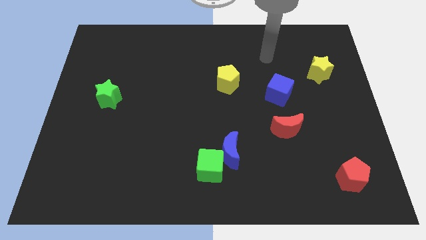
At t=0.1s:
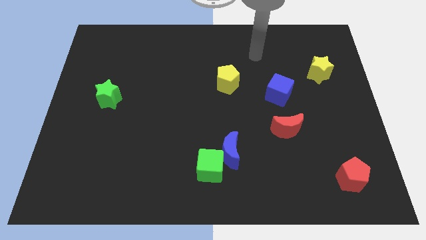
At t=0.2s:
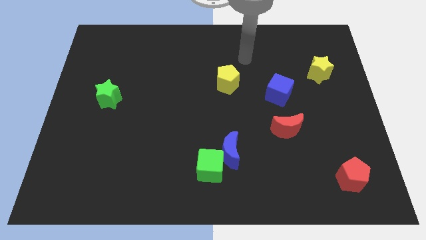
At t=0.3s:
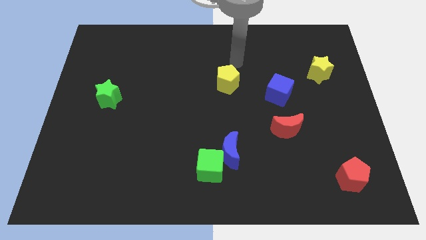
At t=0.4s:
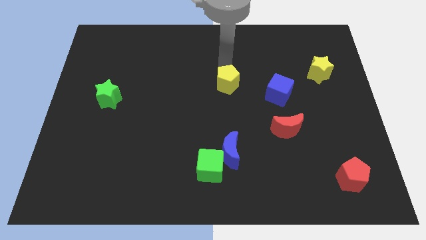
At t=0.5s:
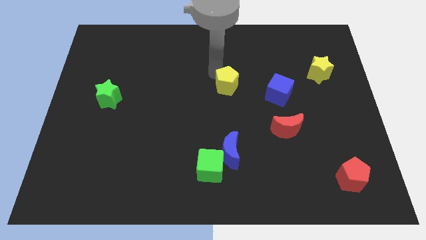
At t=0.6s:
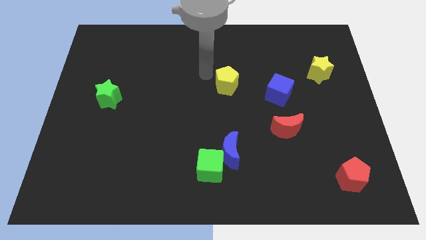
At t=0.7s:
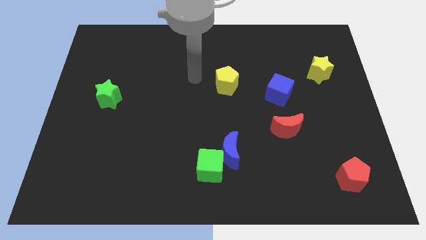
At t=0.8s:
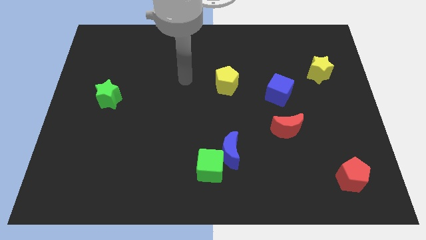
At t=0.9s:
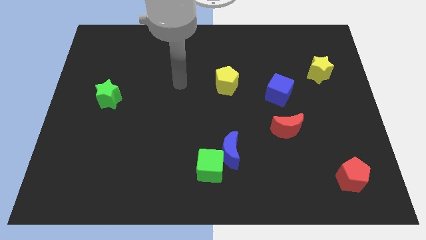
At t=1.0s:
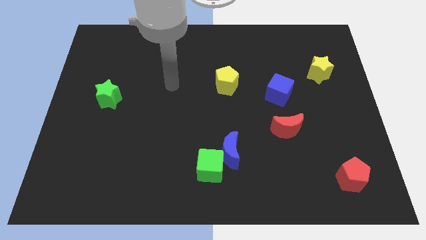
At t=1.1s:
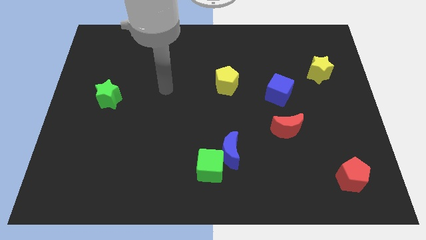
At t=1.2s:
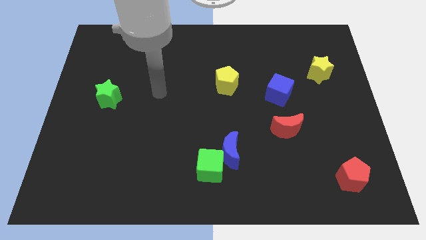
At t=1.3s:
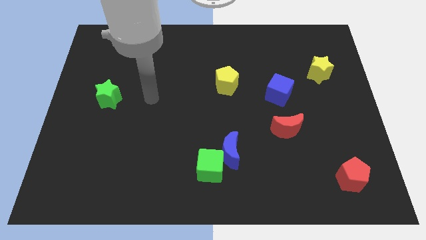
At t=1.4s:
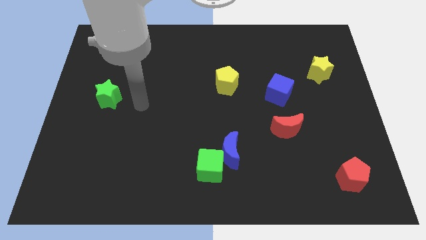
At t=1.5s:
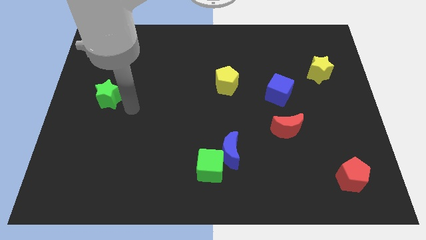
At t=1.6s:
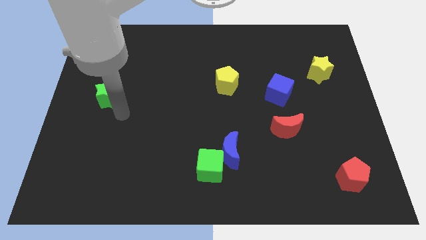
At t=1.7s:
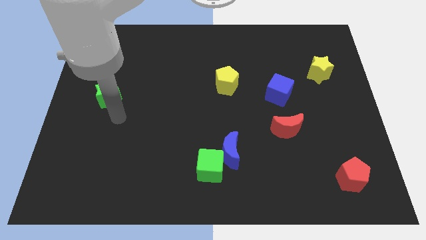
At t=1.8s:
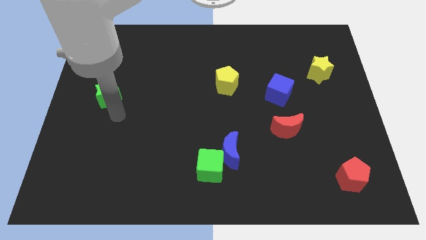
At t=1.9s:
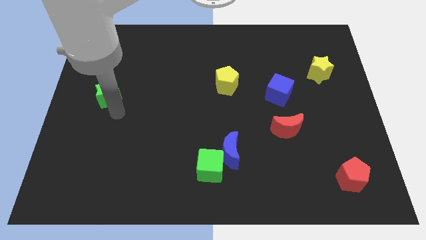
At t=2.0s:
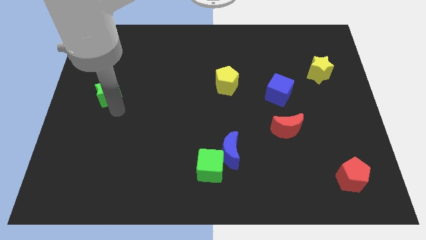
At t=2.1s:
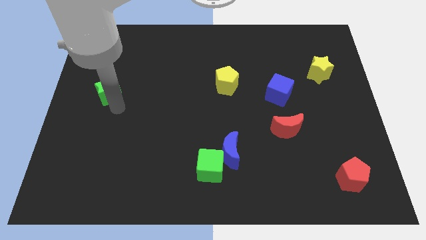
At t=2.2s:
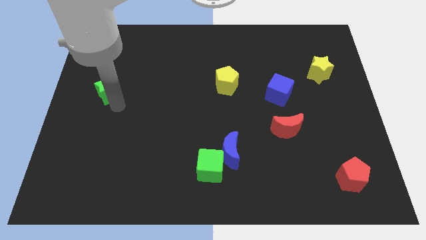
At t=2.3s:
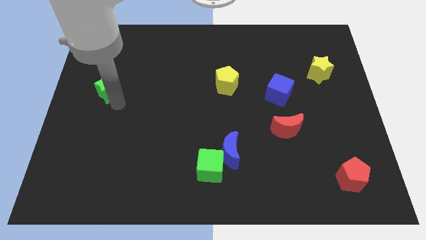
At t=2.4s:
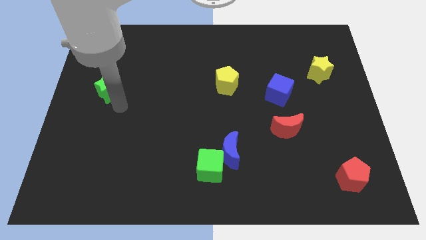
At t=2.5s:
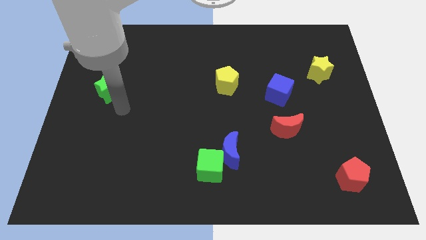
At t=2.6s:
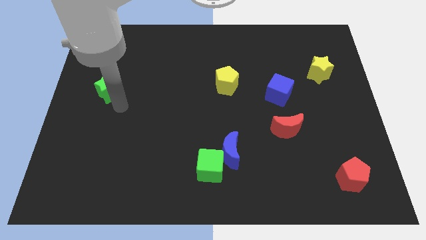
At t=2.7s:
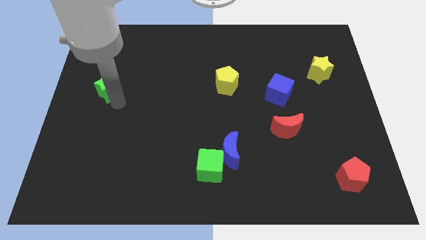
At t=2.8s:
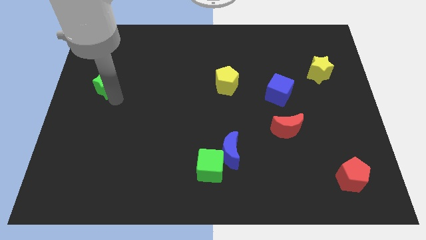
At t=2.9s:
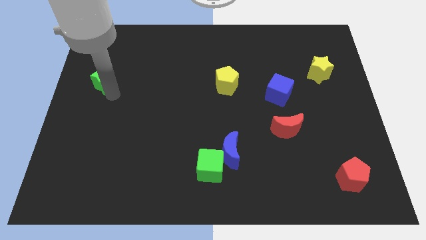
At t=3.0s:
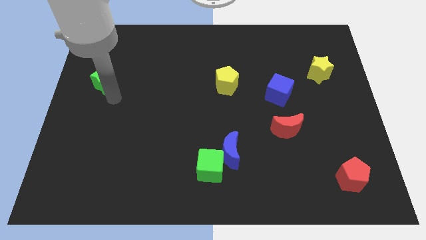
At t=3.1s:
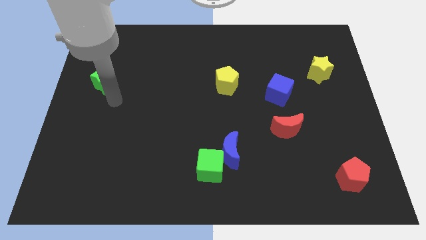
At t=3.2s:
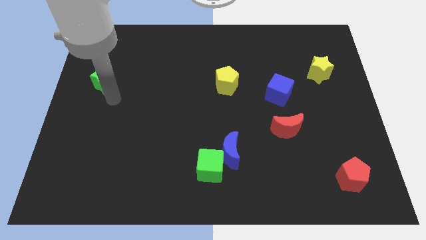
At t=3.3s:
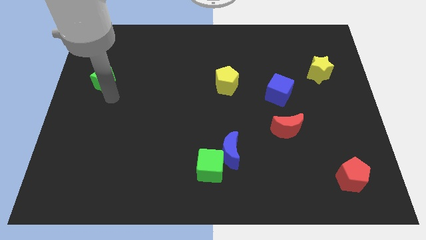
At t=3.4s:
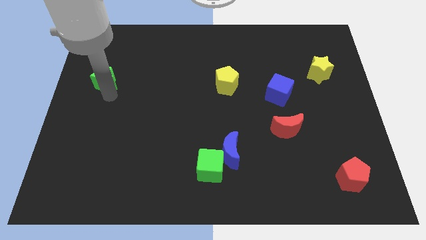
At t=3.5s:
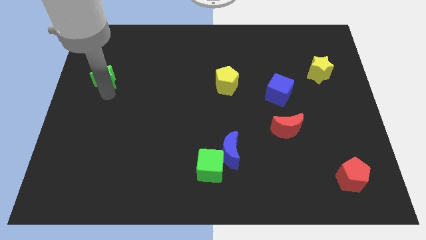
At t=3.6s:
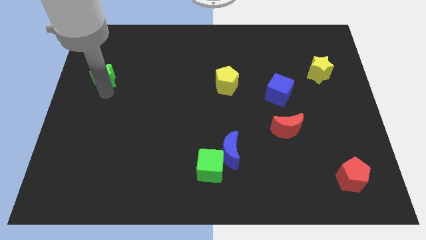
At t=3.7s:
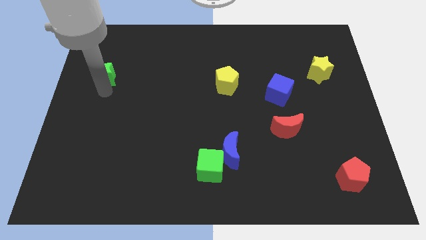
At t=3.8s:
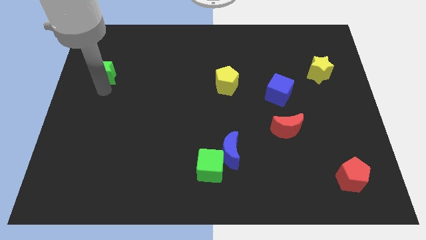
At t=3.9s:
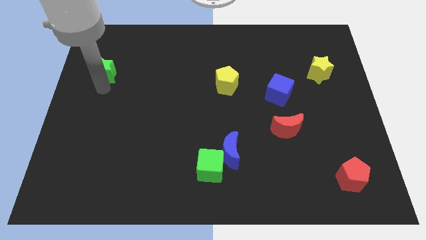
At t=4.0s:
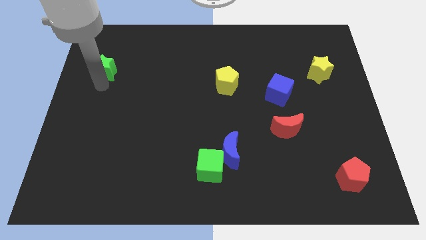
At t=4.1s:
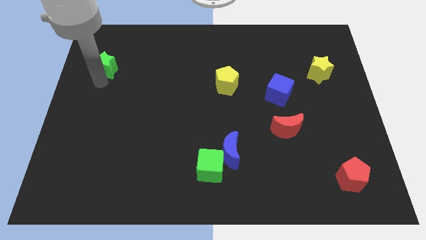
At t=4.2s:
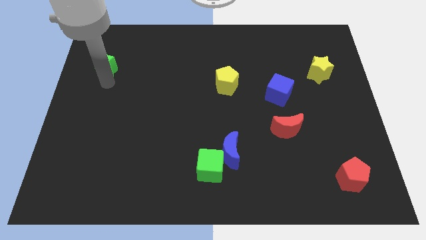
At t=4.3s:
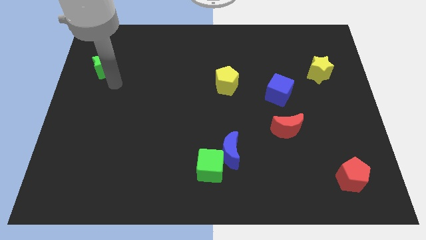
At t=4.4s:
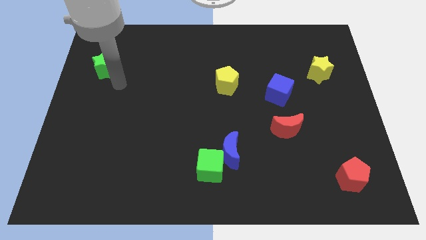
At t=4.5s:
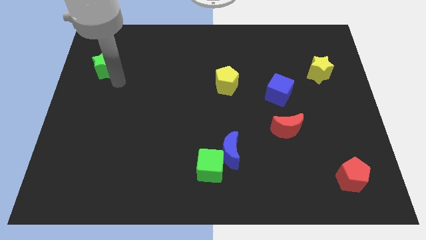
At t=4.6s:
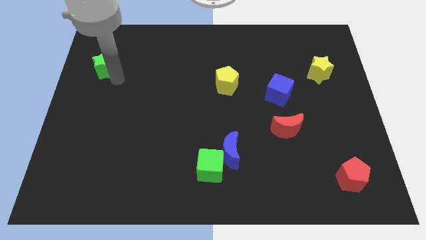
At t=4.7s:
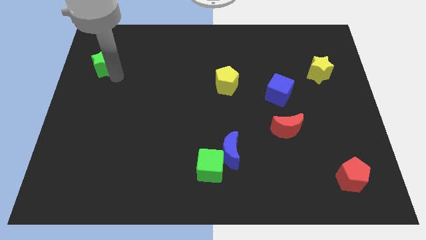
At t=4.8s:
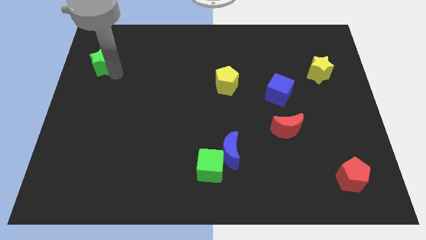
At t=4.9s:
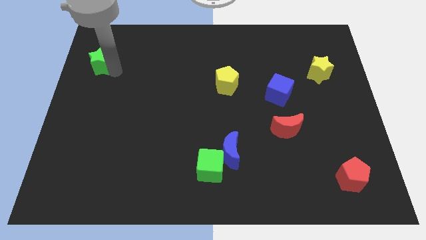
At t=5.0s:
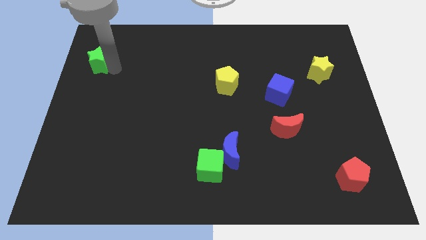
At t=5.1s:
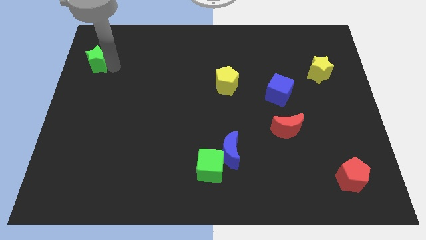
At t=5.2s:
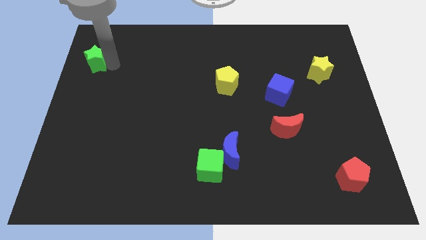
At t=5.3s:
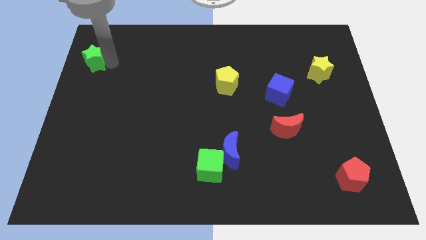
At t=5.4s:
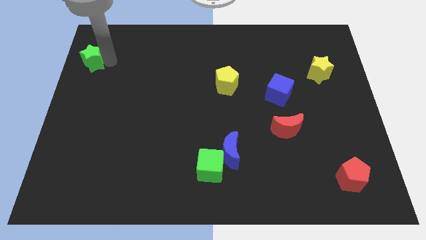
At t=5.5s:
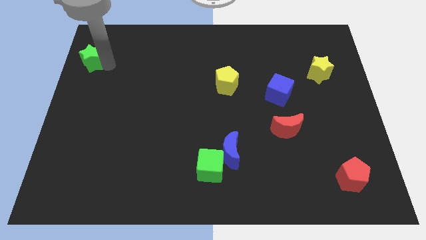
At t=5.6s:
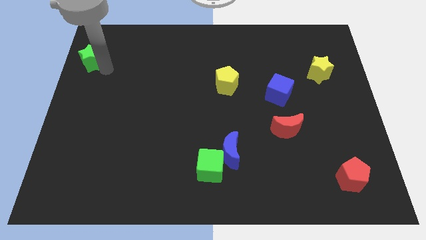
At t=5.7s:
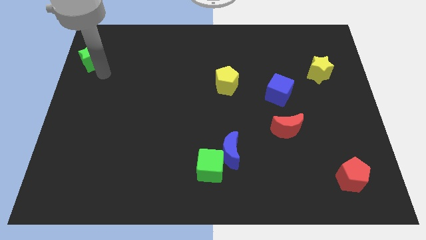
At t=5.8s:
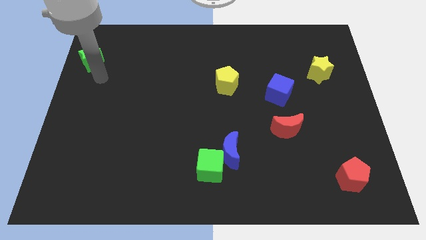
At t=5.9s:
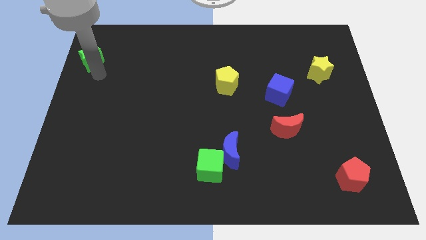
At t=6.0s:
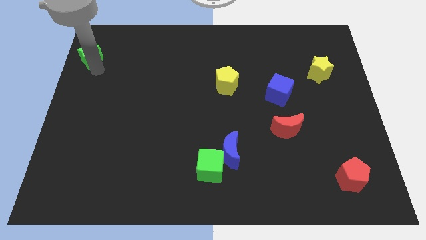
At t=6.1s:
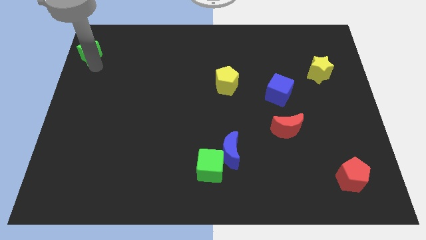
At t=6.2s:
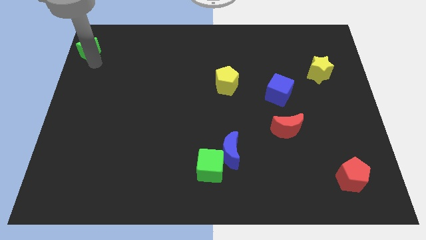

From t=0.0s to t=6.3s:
move the green star to the top left of the board
